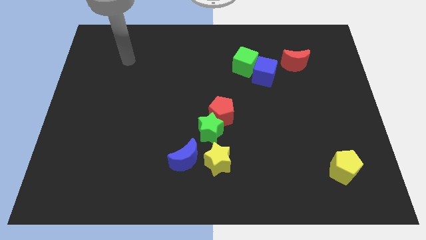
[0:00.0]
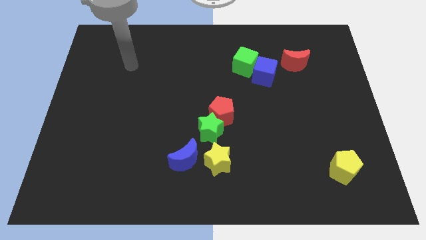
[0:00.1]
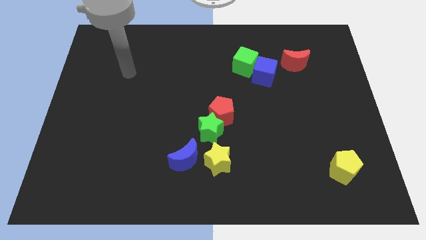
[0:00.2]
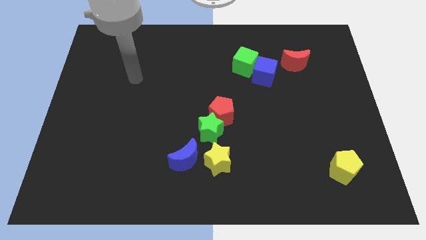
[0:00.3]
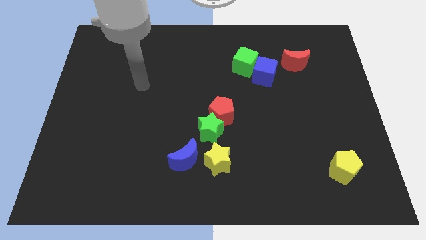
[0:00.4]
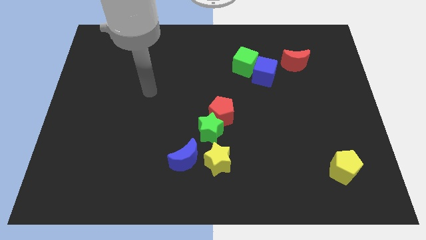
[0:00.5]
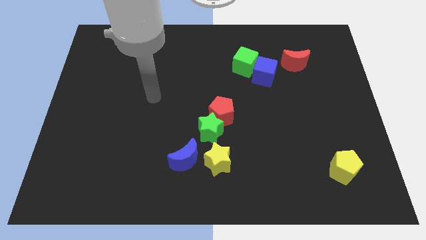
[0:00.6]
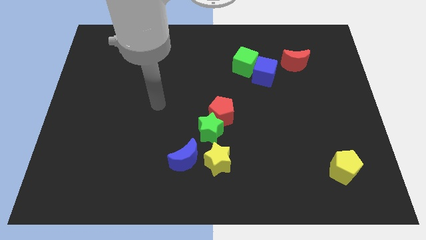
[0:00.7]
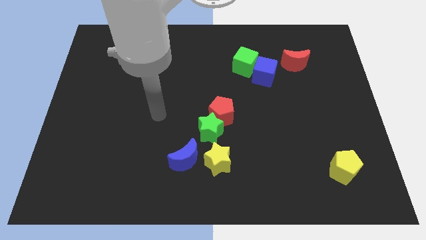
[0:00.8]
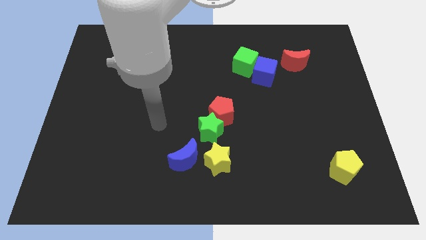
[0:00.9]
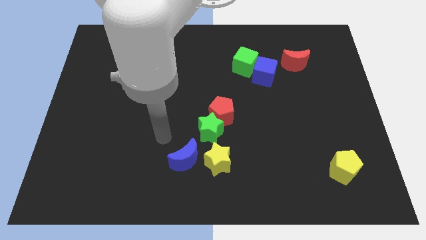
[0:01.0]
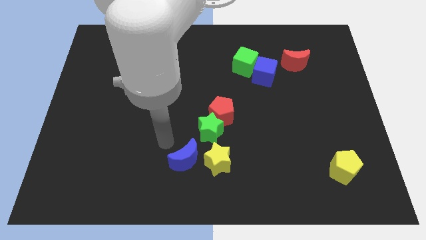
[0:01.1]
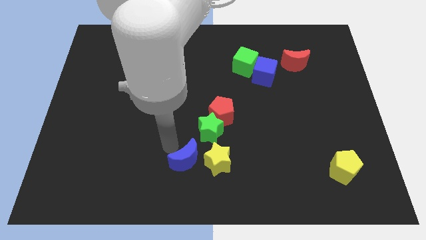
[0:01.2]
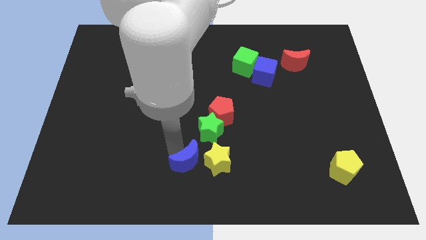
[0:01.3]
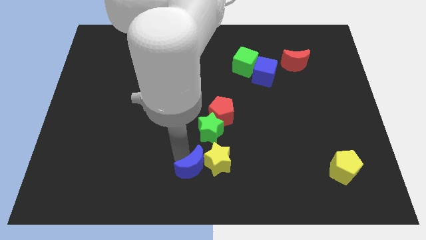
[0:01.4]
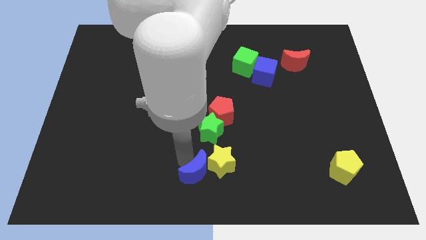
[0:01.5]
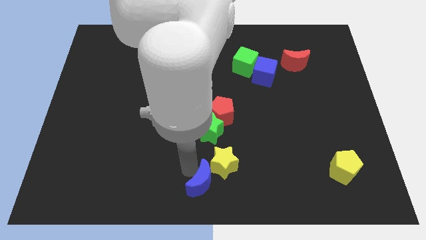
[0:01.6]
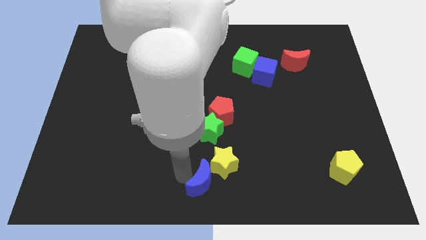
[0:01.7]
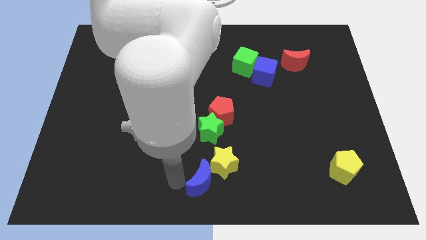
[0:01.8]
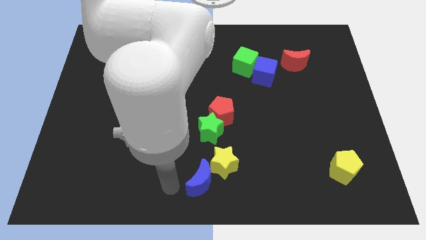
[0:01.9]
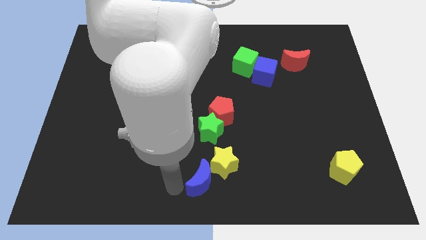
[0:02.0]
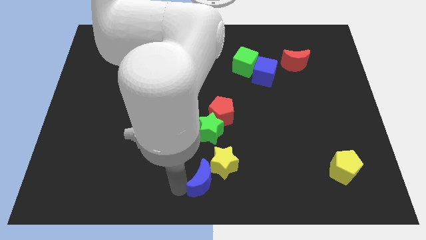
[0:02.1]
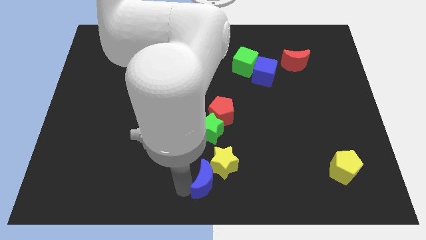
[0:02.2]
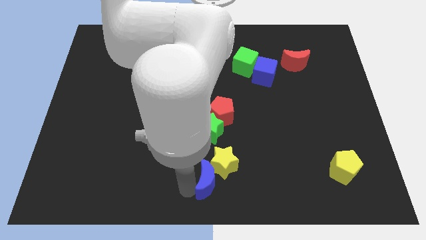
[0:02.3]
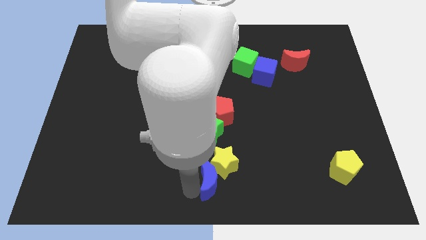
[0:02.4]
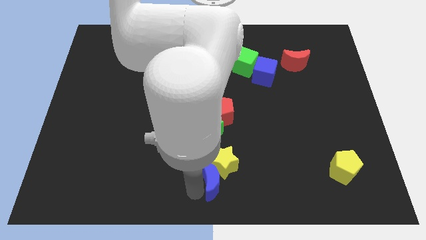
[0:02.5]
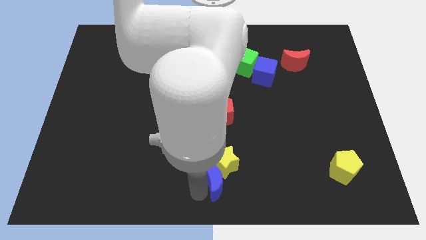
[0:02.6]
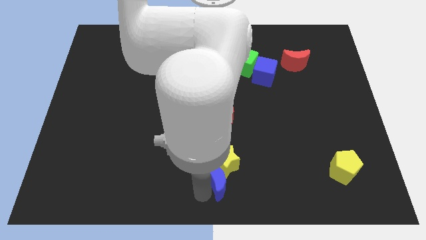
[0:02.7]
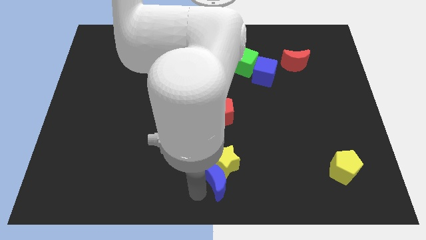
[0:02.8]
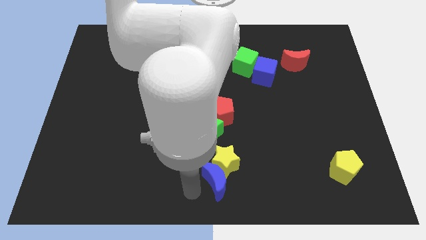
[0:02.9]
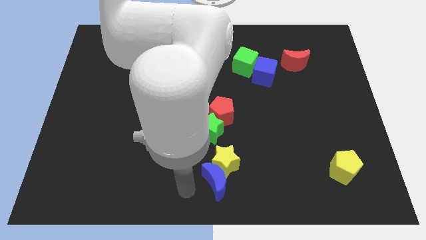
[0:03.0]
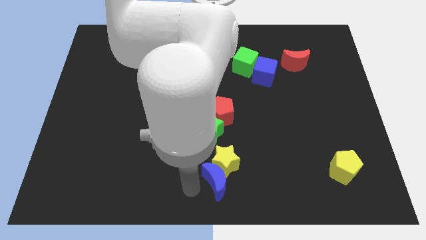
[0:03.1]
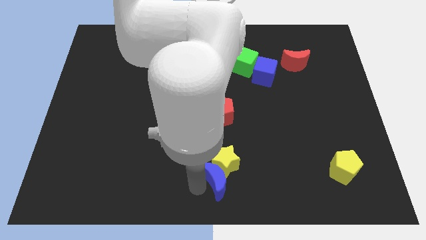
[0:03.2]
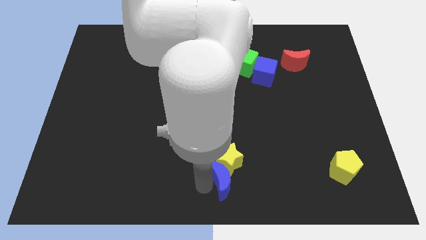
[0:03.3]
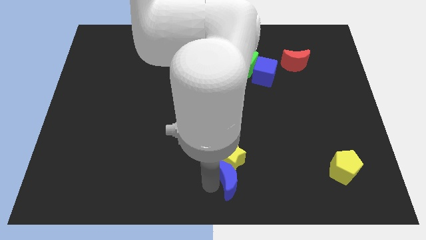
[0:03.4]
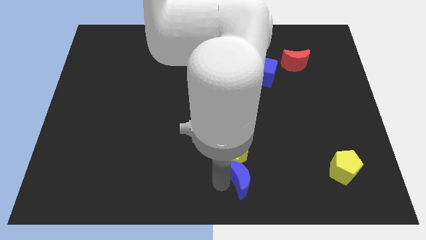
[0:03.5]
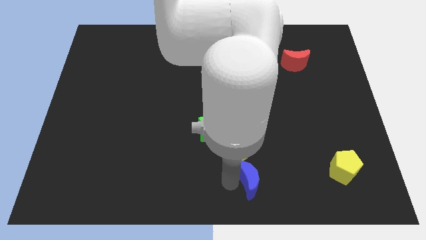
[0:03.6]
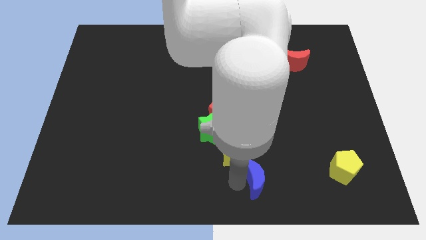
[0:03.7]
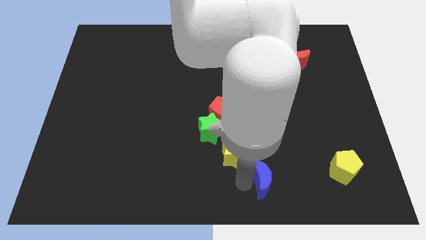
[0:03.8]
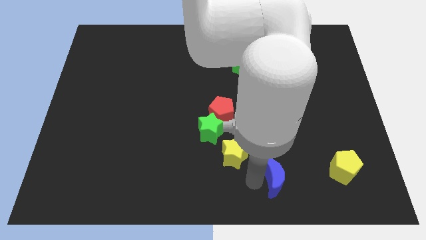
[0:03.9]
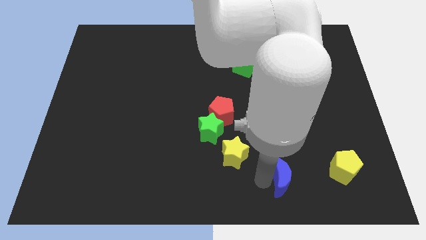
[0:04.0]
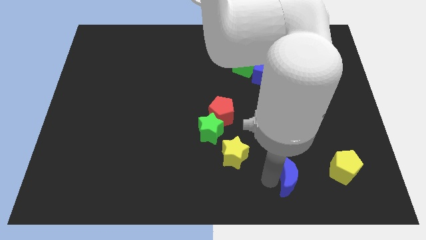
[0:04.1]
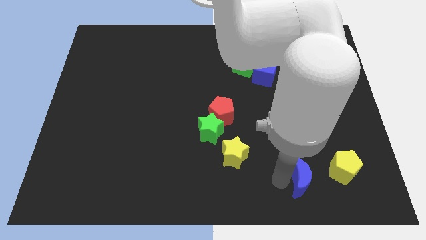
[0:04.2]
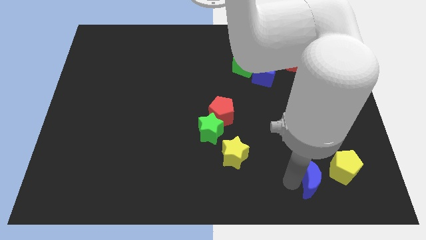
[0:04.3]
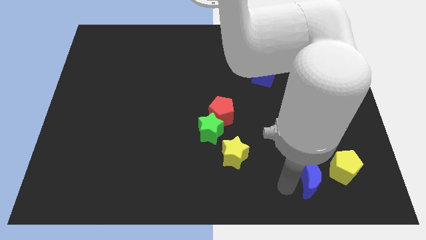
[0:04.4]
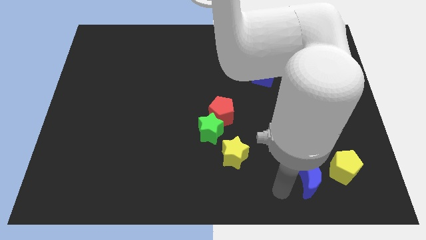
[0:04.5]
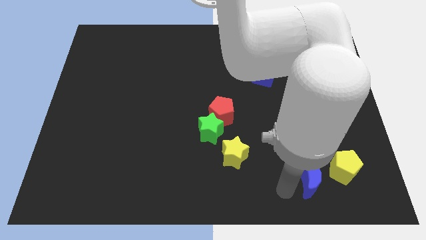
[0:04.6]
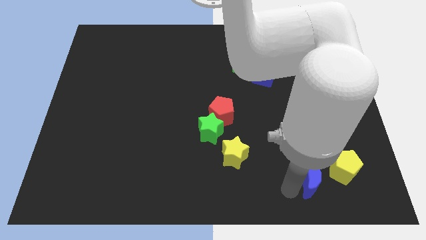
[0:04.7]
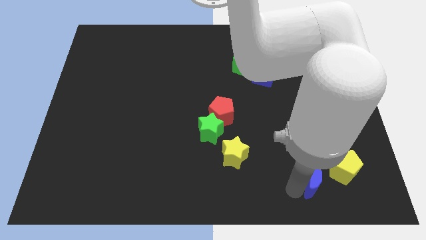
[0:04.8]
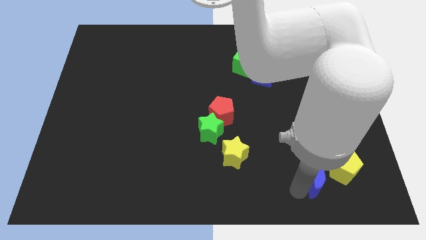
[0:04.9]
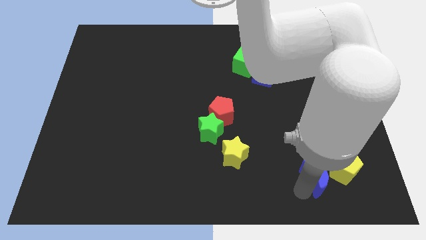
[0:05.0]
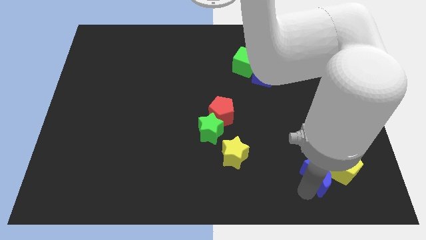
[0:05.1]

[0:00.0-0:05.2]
push the blue moon towards the yellow pentagon

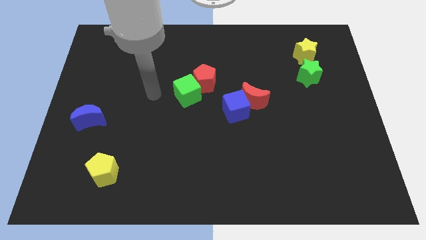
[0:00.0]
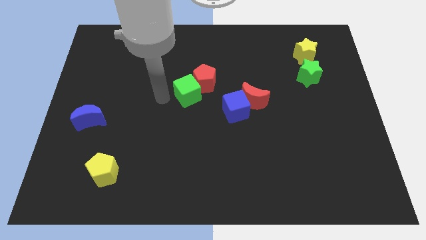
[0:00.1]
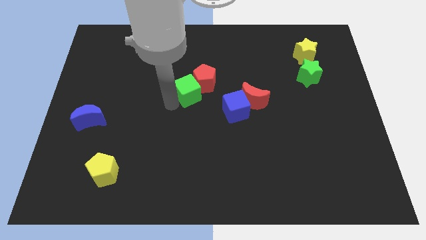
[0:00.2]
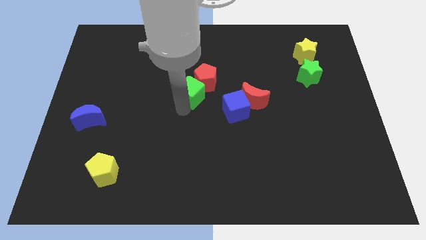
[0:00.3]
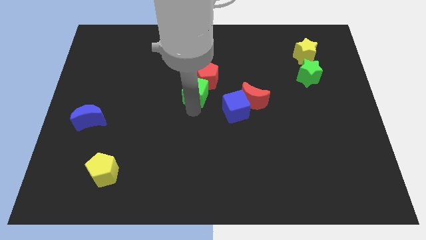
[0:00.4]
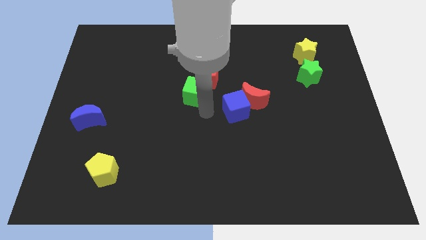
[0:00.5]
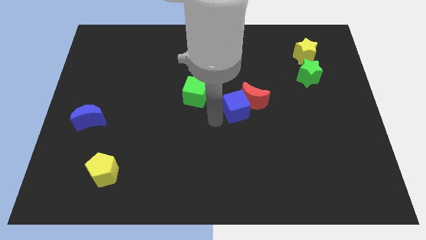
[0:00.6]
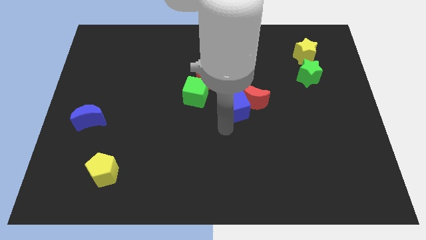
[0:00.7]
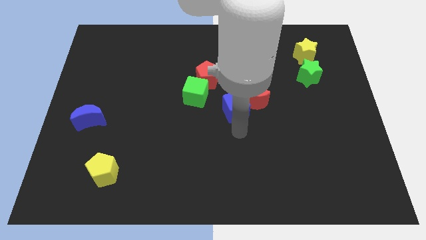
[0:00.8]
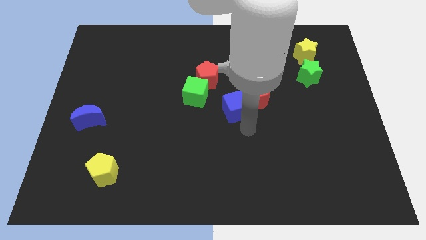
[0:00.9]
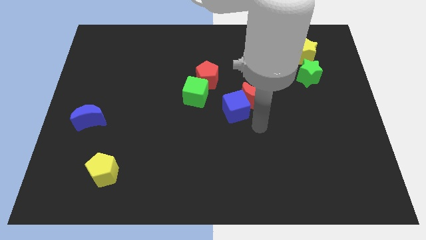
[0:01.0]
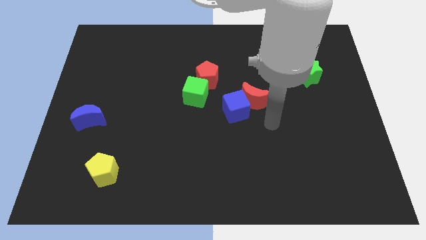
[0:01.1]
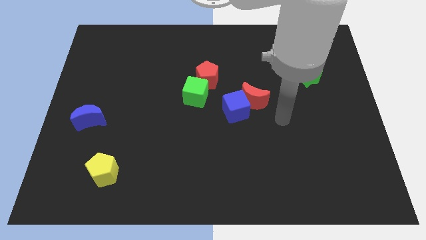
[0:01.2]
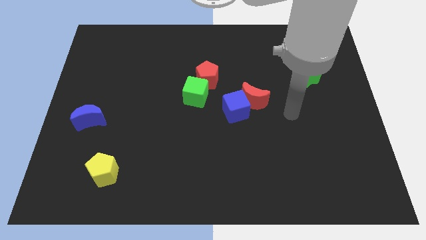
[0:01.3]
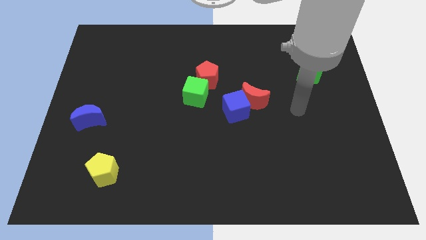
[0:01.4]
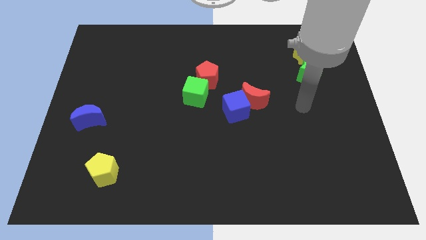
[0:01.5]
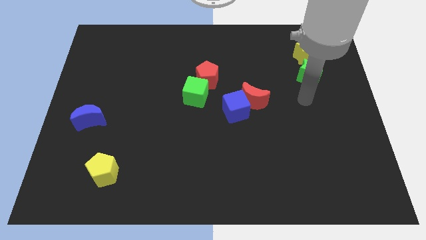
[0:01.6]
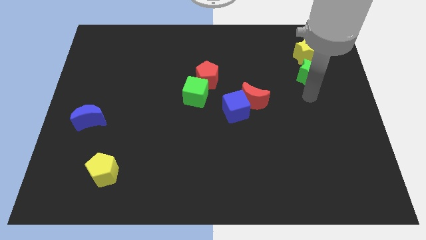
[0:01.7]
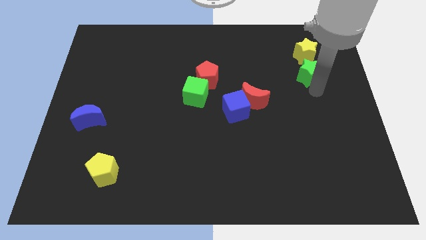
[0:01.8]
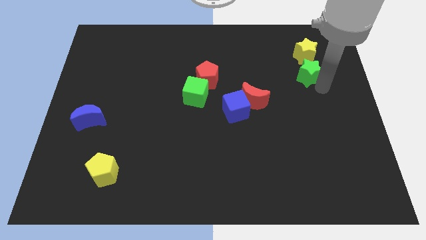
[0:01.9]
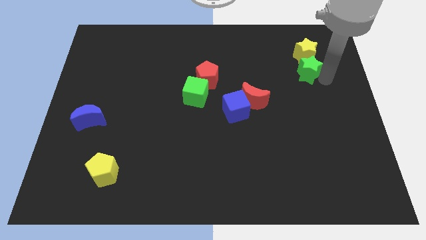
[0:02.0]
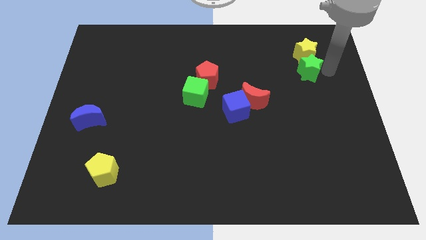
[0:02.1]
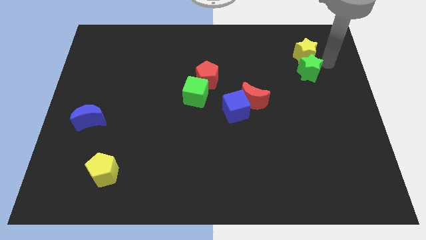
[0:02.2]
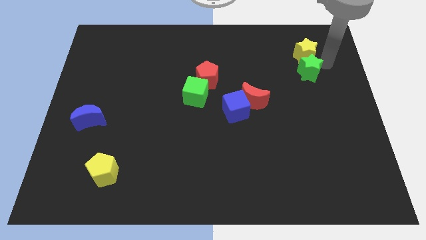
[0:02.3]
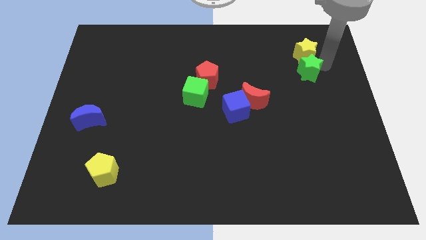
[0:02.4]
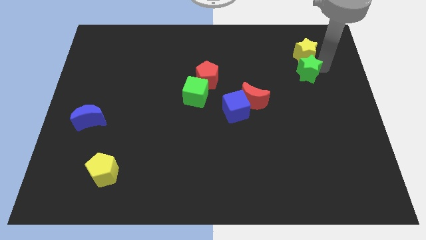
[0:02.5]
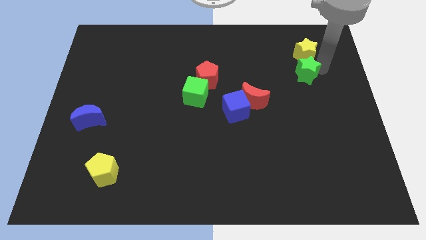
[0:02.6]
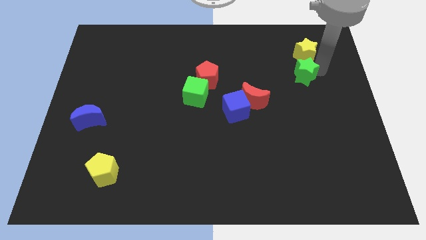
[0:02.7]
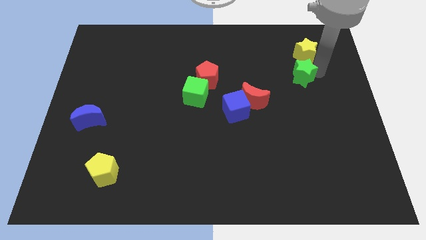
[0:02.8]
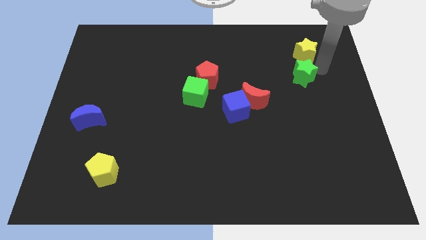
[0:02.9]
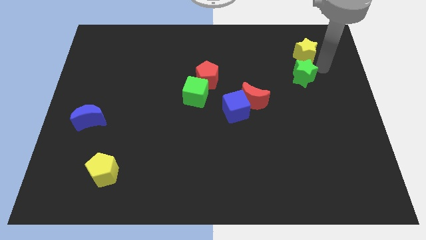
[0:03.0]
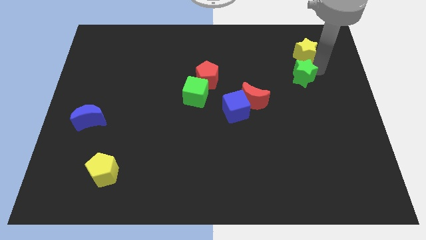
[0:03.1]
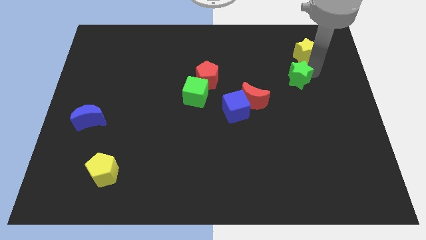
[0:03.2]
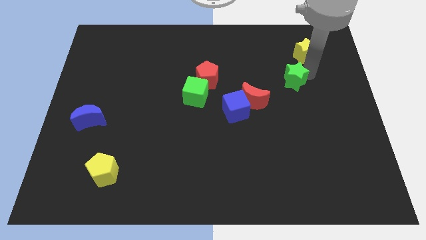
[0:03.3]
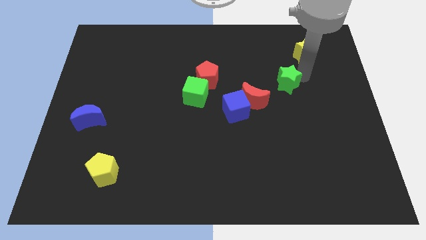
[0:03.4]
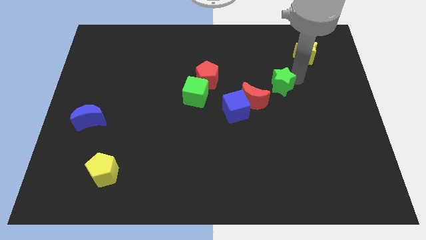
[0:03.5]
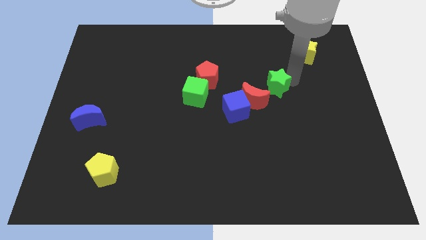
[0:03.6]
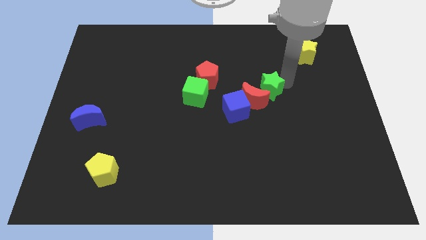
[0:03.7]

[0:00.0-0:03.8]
slide the green star next to the red moon
